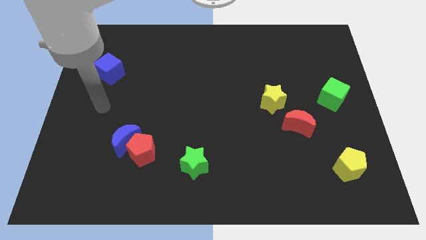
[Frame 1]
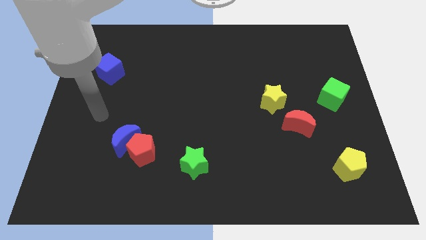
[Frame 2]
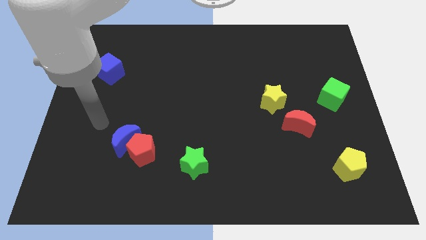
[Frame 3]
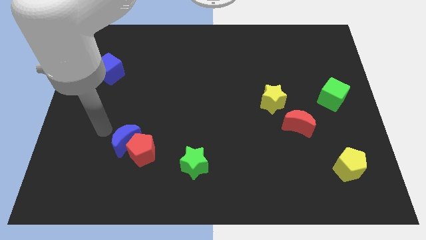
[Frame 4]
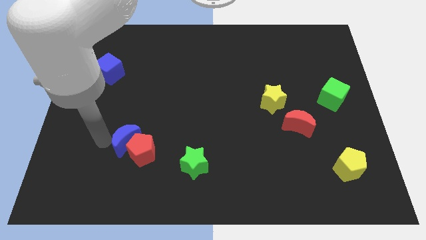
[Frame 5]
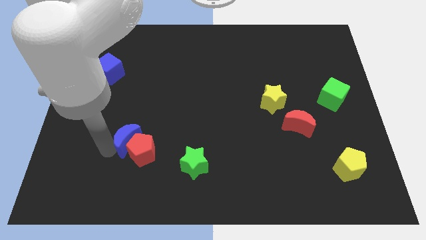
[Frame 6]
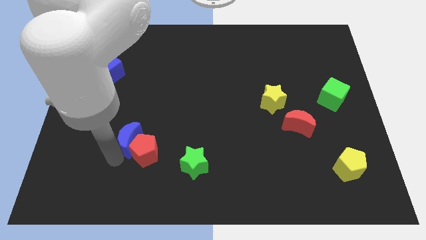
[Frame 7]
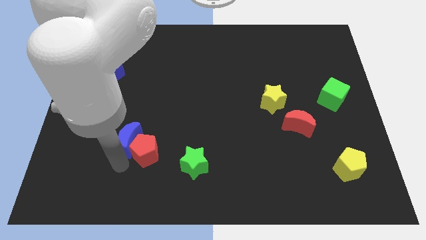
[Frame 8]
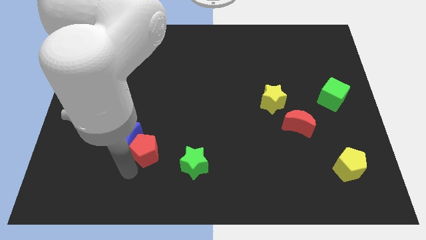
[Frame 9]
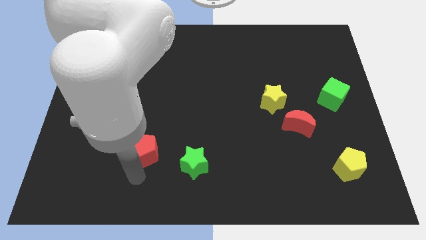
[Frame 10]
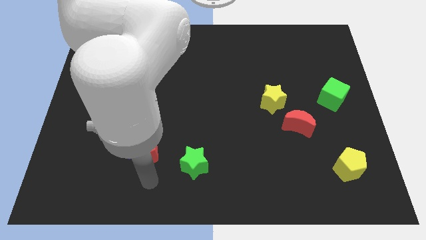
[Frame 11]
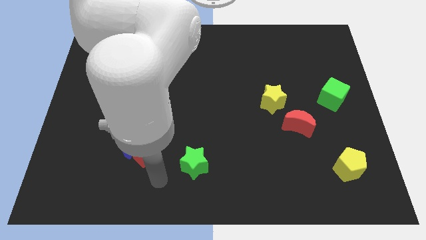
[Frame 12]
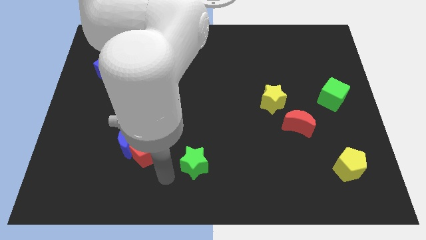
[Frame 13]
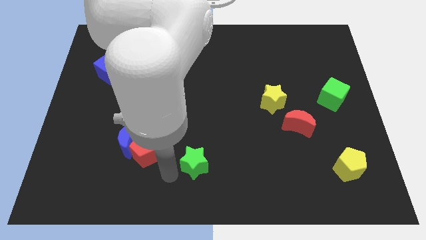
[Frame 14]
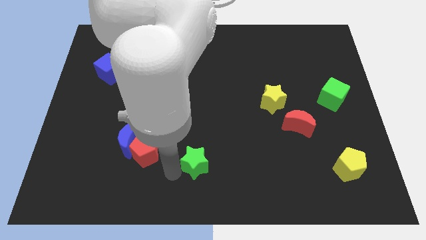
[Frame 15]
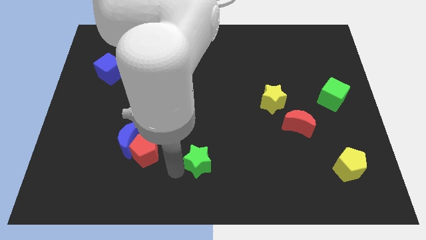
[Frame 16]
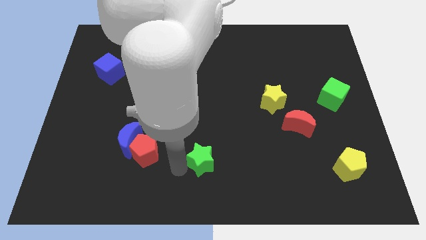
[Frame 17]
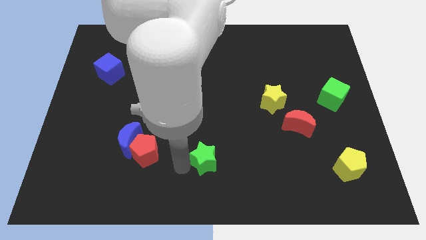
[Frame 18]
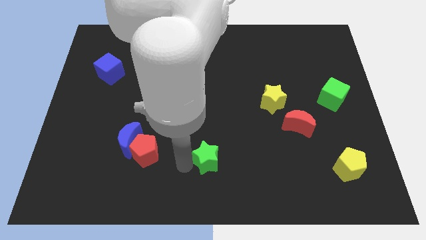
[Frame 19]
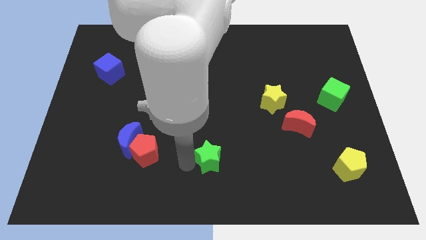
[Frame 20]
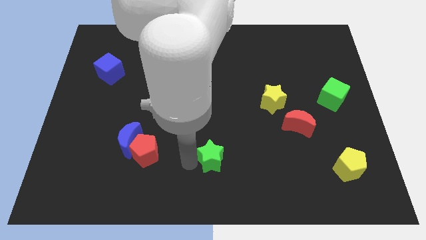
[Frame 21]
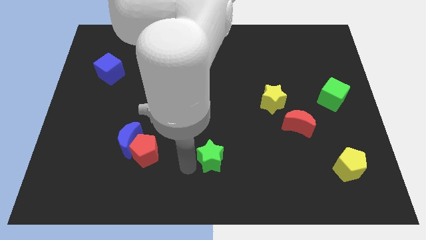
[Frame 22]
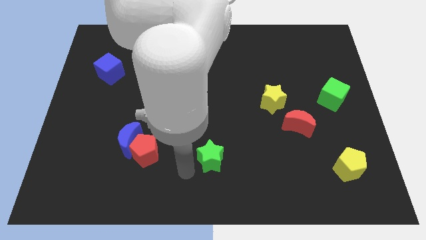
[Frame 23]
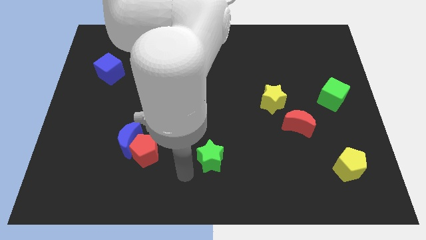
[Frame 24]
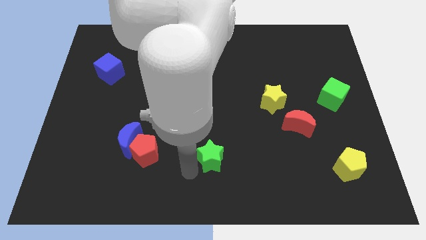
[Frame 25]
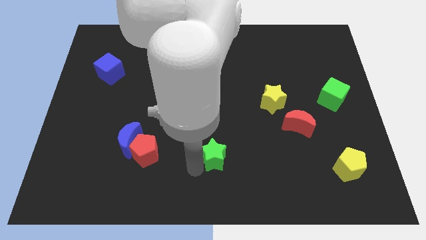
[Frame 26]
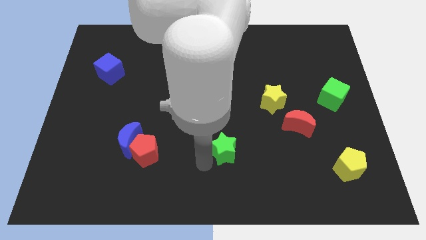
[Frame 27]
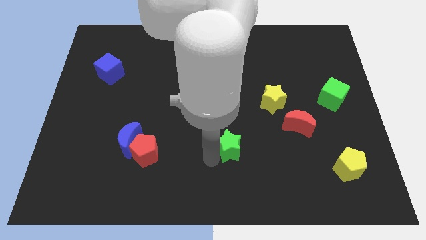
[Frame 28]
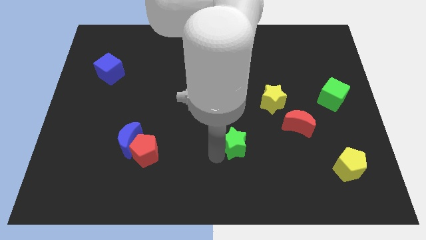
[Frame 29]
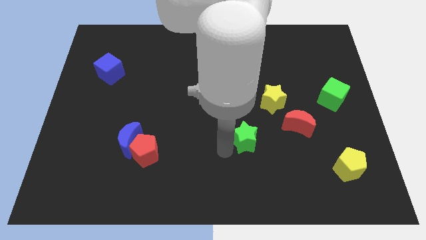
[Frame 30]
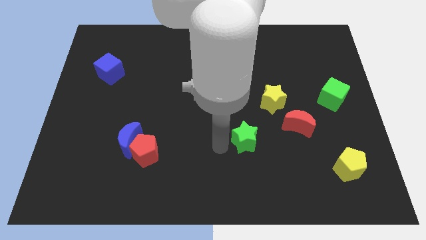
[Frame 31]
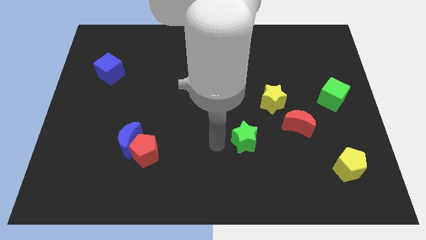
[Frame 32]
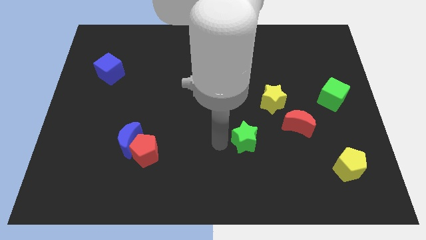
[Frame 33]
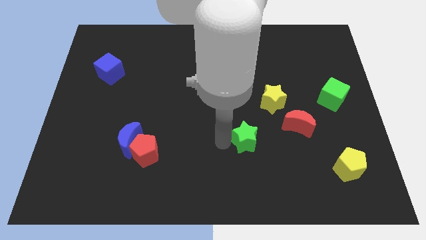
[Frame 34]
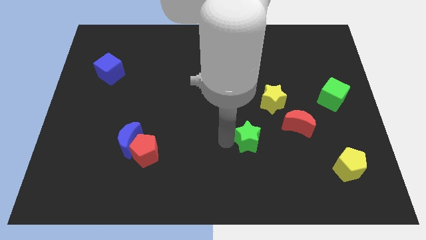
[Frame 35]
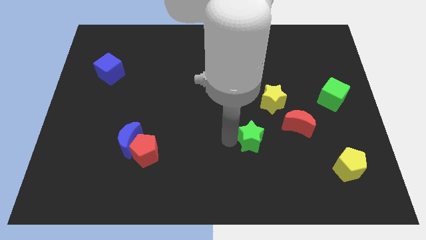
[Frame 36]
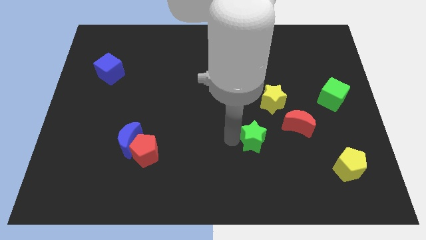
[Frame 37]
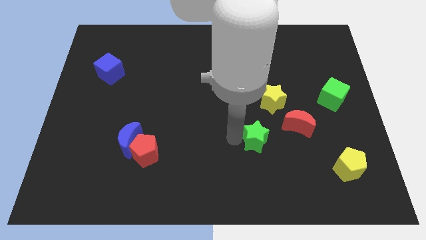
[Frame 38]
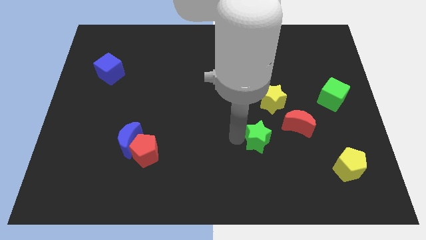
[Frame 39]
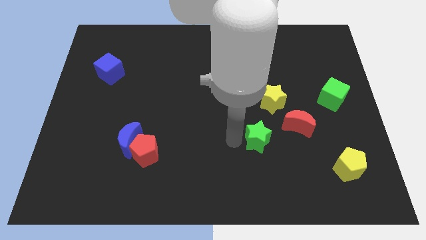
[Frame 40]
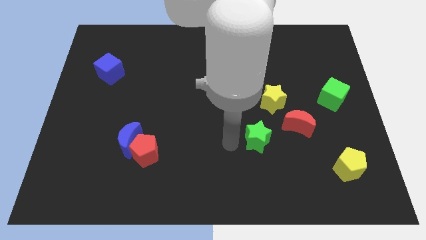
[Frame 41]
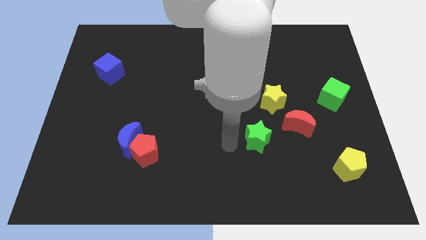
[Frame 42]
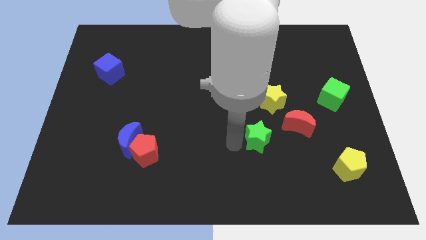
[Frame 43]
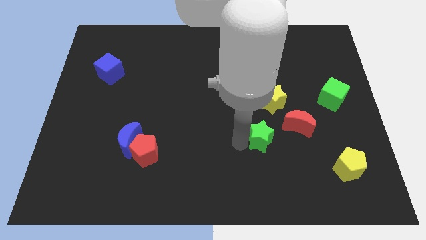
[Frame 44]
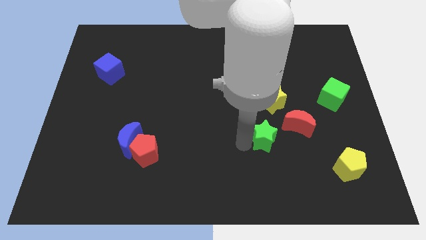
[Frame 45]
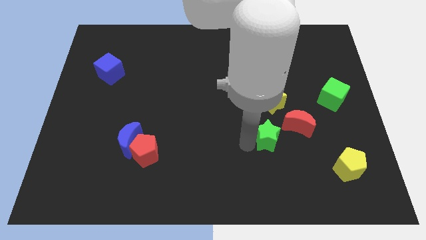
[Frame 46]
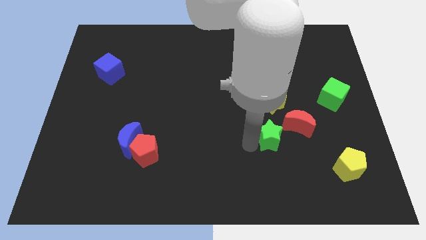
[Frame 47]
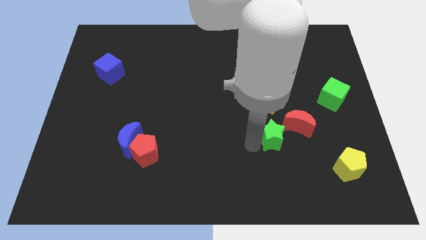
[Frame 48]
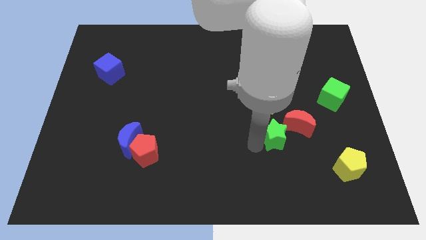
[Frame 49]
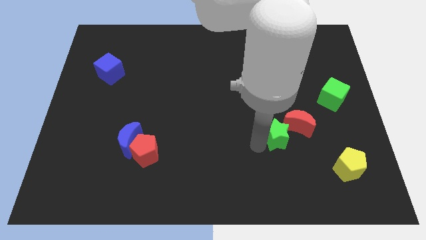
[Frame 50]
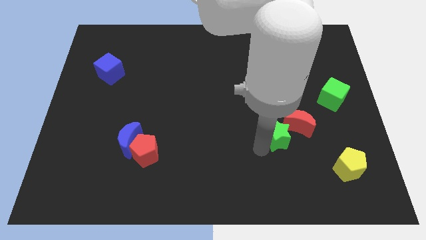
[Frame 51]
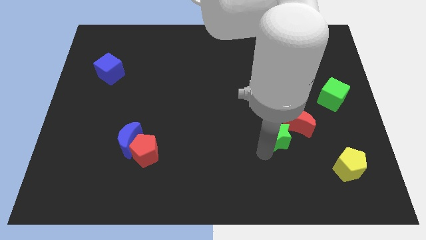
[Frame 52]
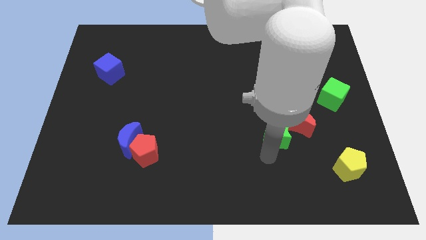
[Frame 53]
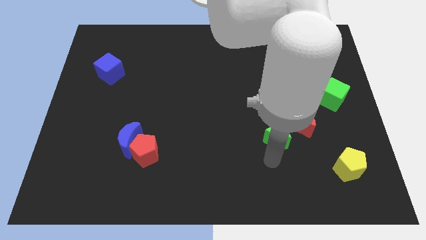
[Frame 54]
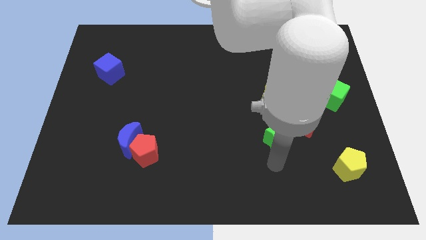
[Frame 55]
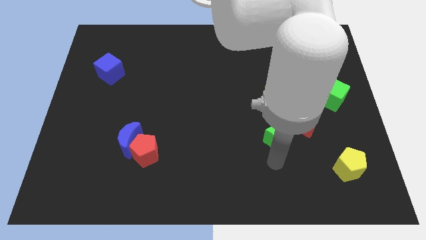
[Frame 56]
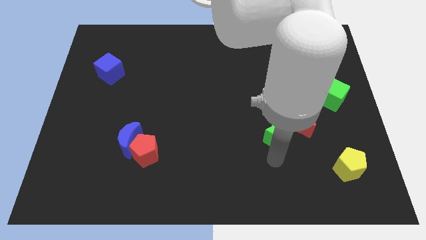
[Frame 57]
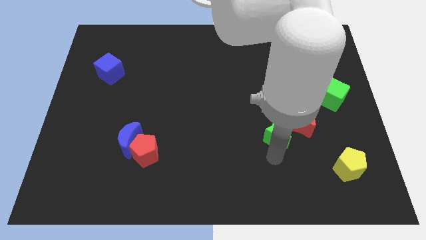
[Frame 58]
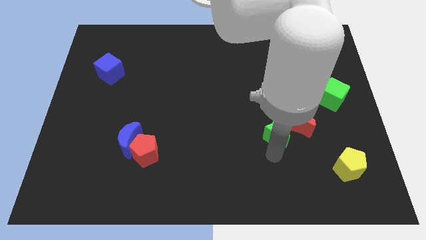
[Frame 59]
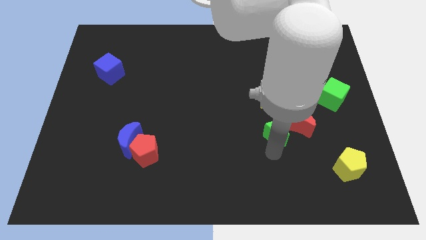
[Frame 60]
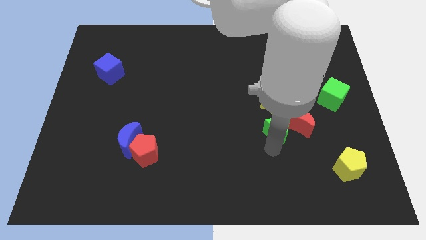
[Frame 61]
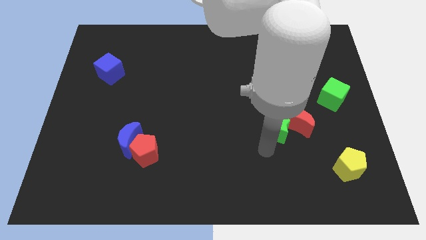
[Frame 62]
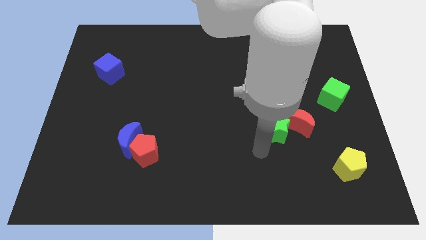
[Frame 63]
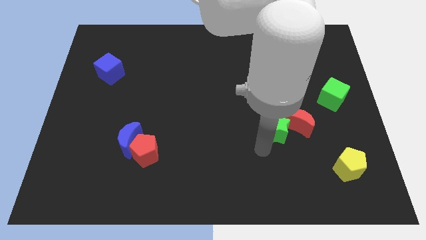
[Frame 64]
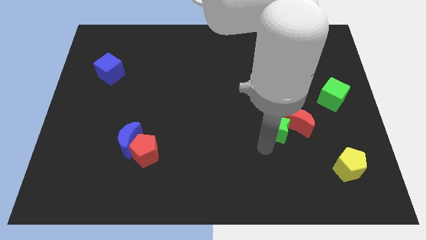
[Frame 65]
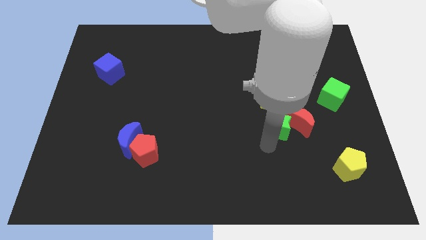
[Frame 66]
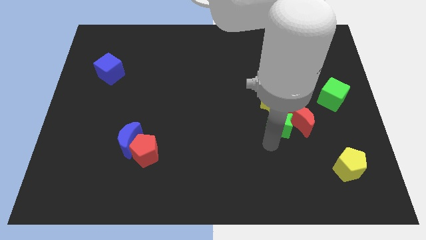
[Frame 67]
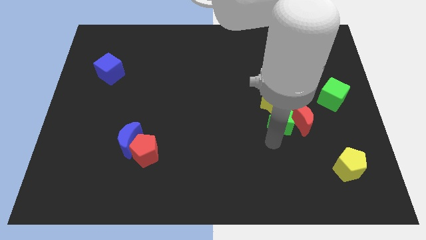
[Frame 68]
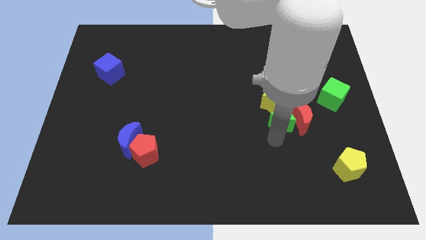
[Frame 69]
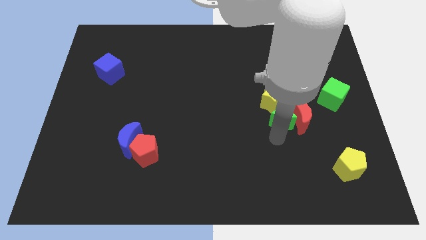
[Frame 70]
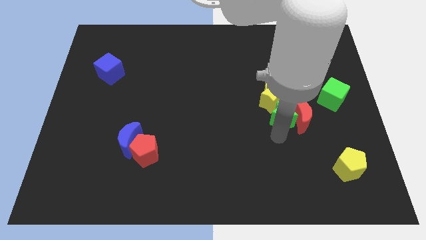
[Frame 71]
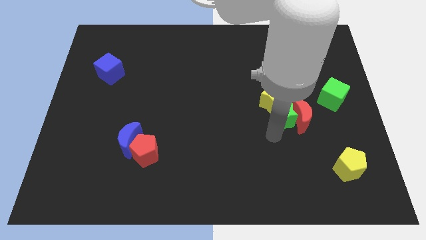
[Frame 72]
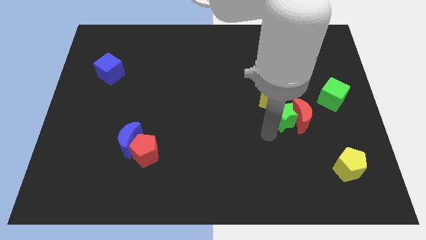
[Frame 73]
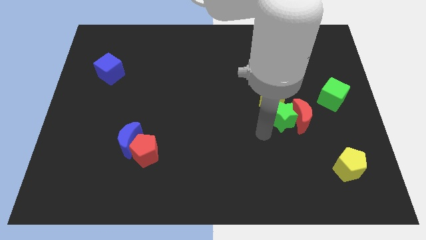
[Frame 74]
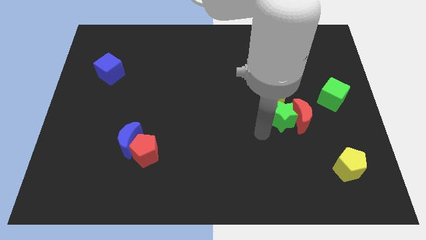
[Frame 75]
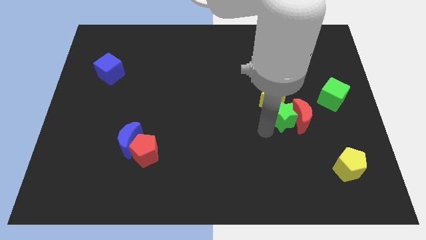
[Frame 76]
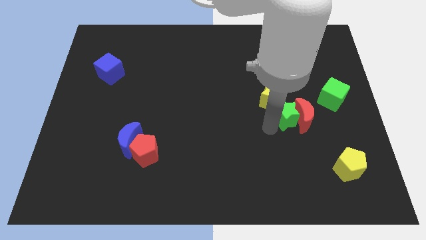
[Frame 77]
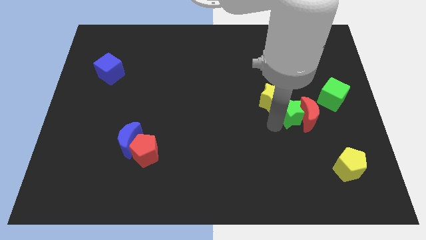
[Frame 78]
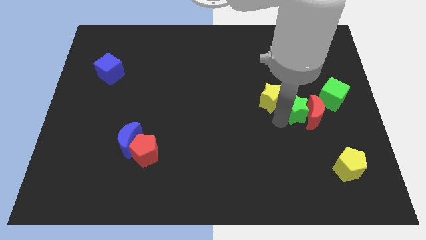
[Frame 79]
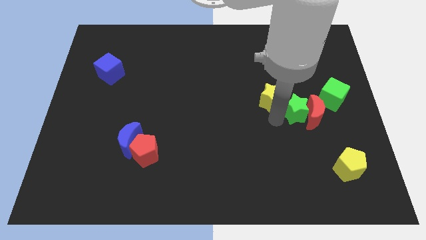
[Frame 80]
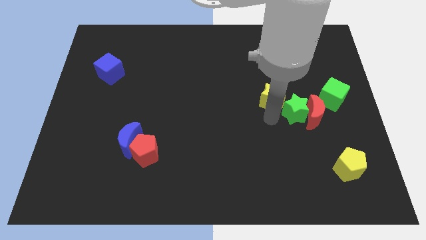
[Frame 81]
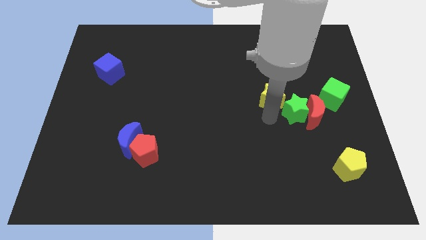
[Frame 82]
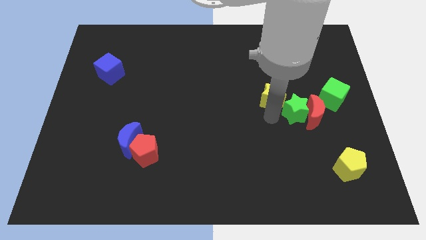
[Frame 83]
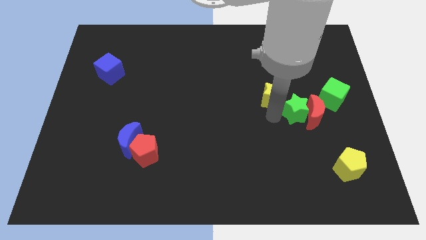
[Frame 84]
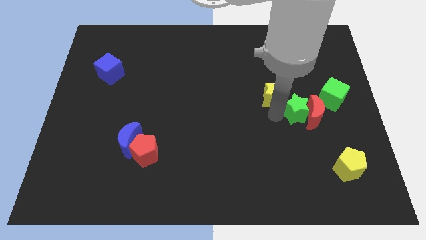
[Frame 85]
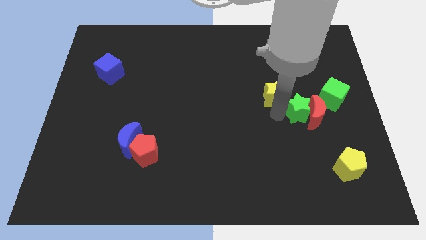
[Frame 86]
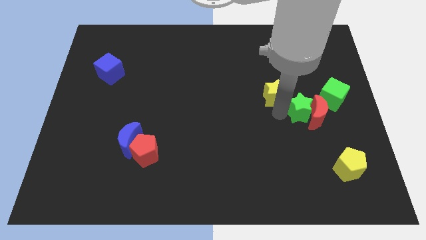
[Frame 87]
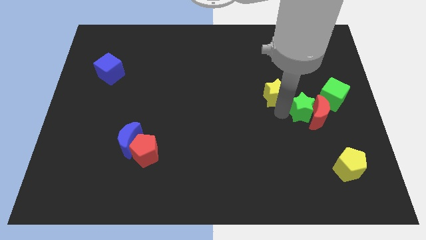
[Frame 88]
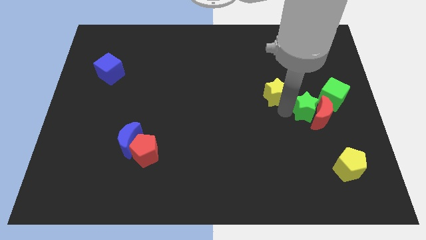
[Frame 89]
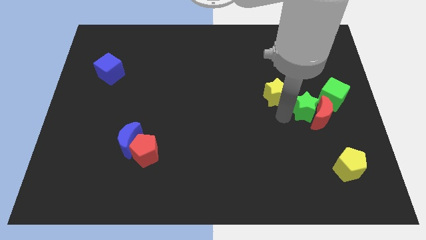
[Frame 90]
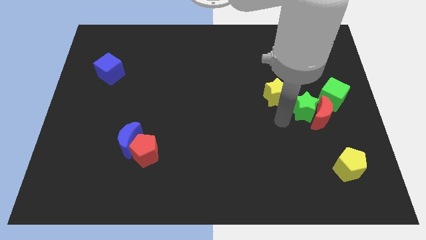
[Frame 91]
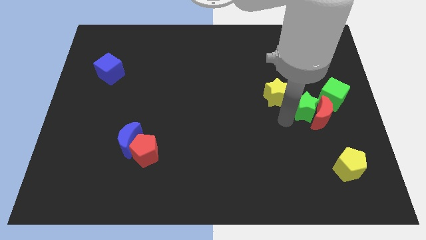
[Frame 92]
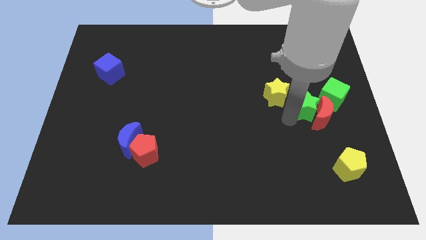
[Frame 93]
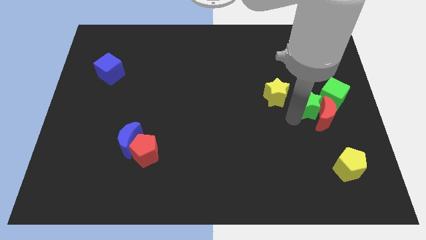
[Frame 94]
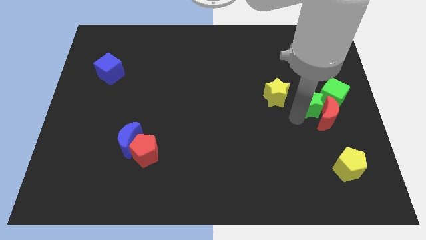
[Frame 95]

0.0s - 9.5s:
move the green star to the green cube
